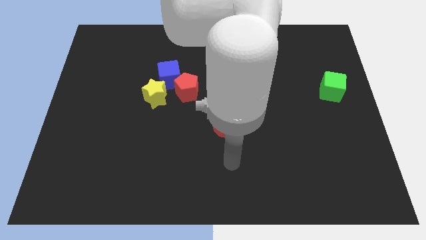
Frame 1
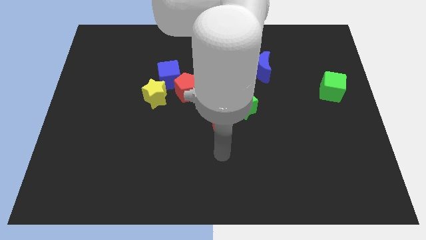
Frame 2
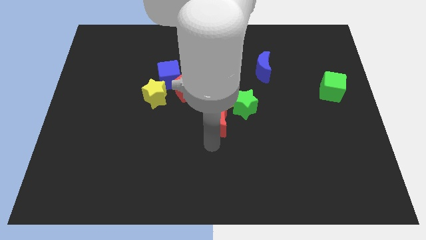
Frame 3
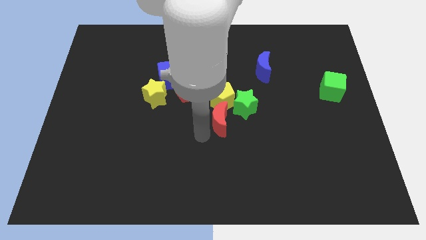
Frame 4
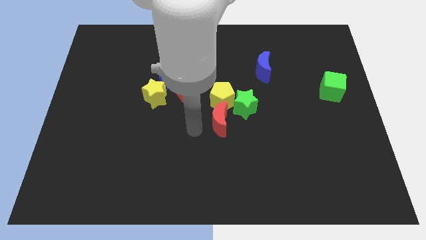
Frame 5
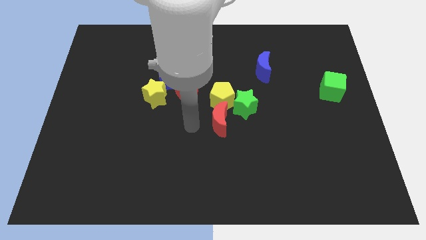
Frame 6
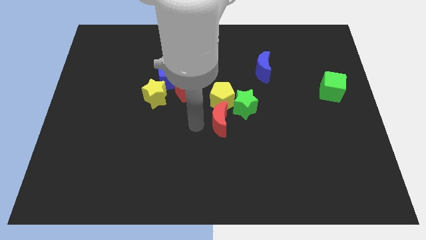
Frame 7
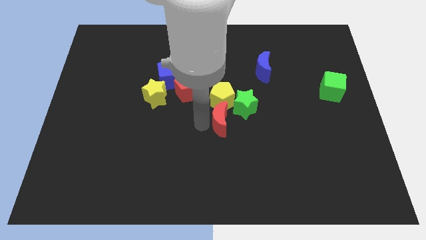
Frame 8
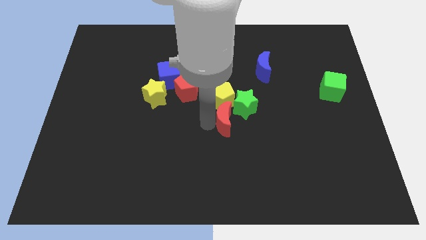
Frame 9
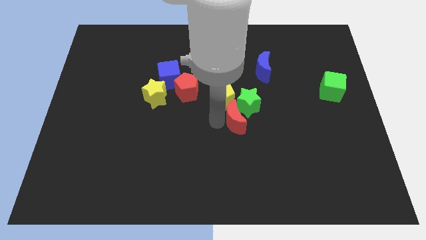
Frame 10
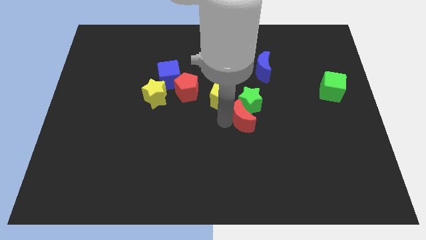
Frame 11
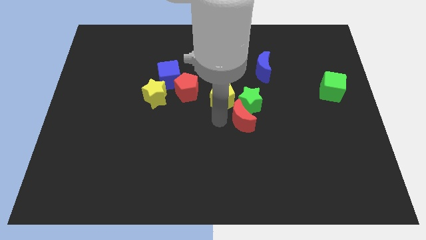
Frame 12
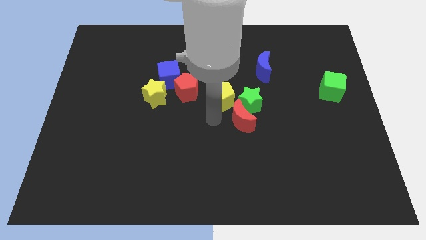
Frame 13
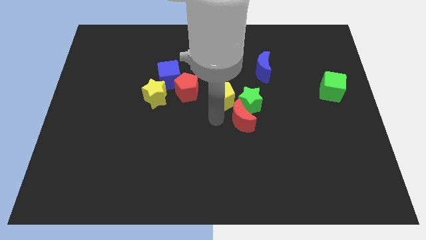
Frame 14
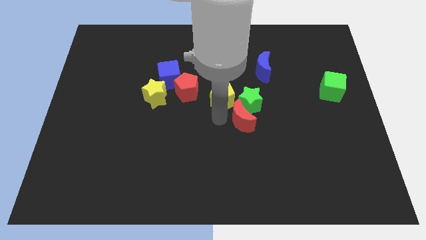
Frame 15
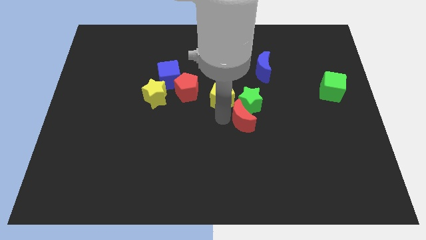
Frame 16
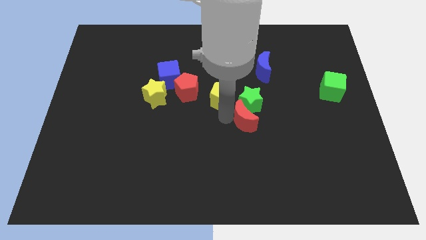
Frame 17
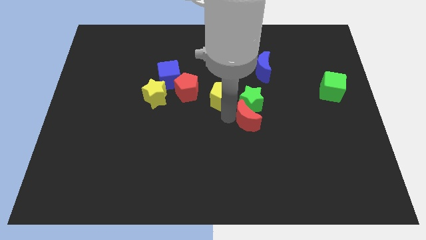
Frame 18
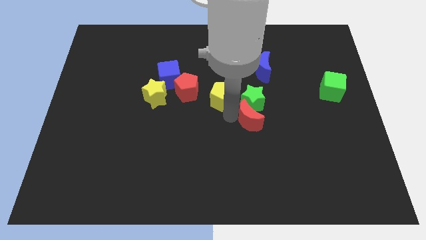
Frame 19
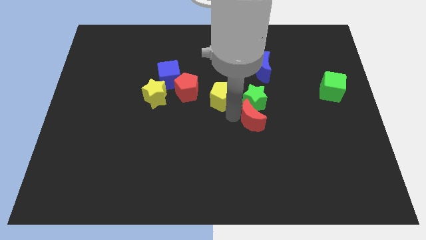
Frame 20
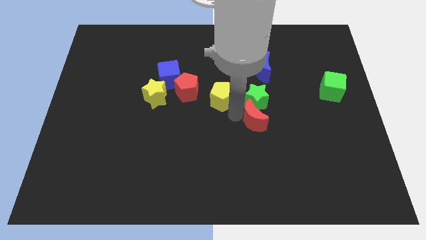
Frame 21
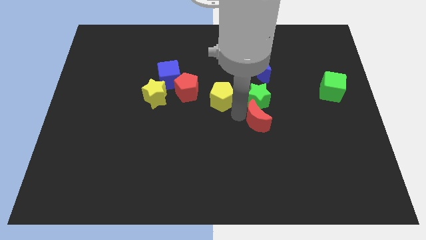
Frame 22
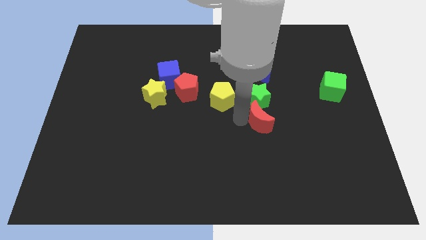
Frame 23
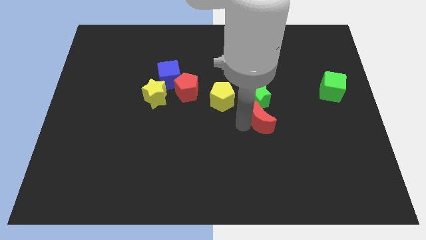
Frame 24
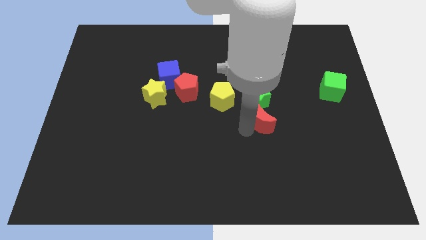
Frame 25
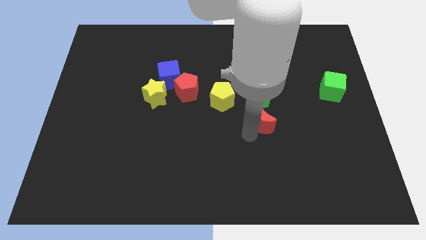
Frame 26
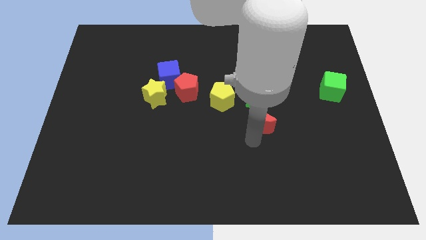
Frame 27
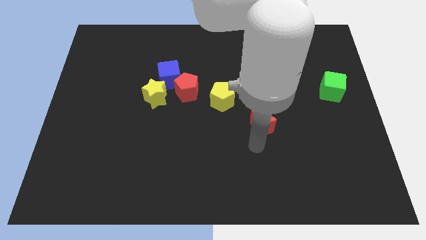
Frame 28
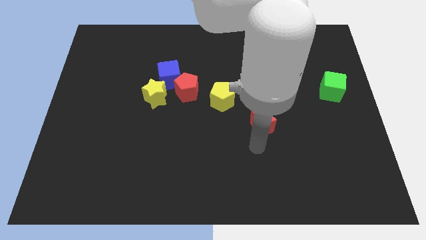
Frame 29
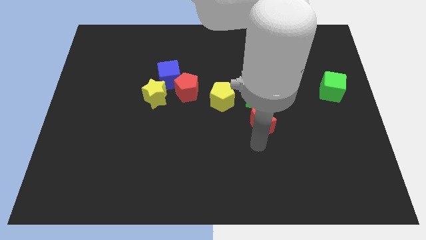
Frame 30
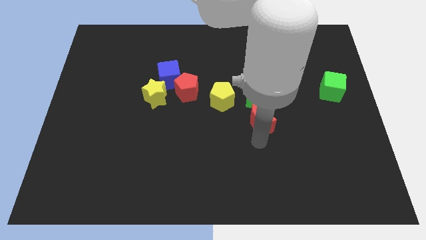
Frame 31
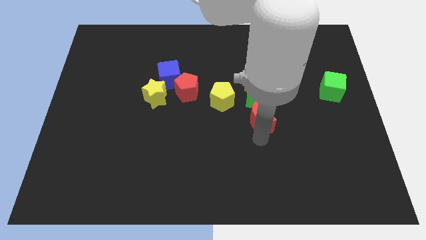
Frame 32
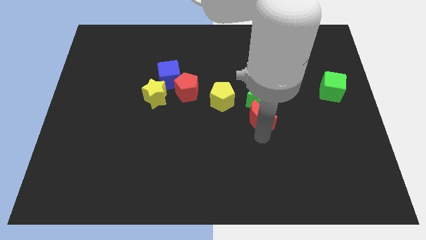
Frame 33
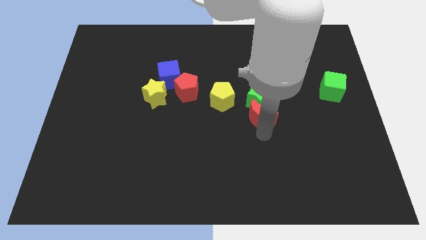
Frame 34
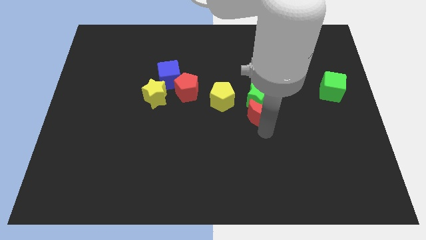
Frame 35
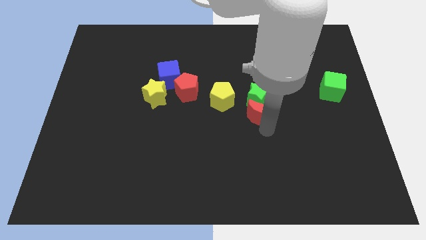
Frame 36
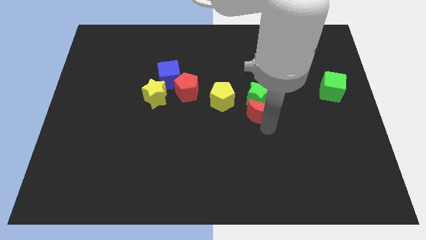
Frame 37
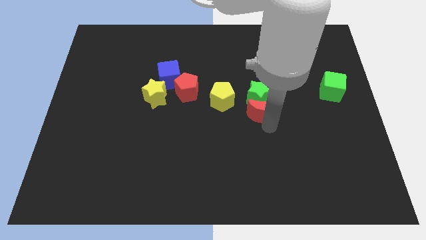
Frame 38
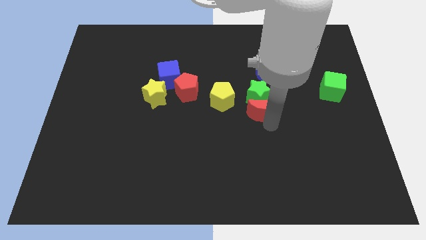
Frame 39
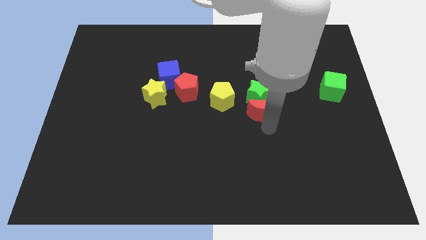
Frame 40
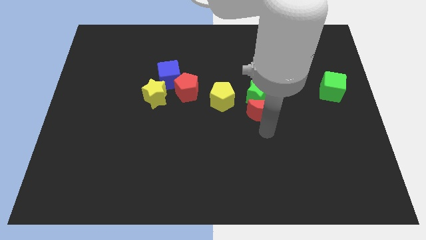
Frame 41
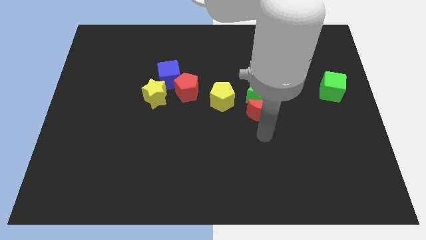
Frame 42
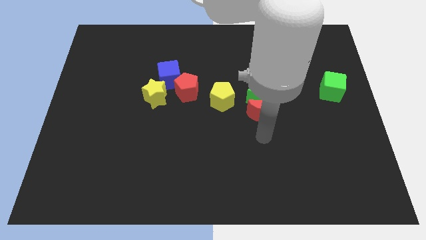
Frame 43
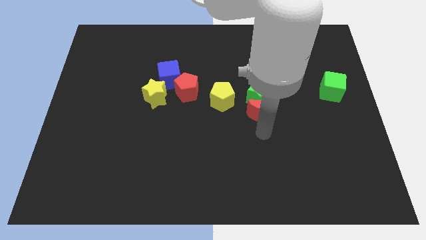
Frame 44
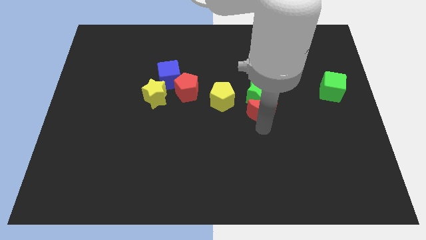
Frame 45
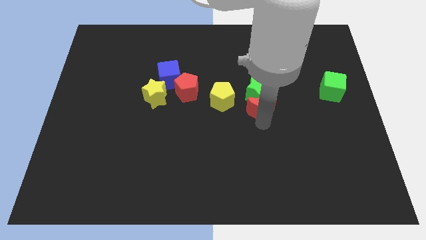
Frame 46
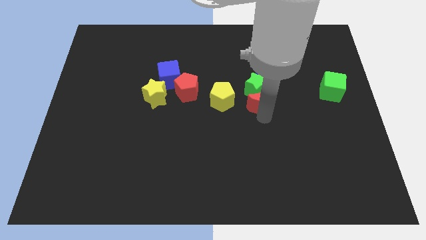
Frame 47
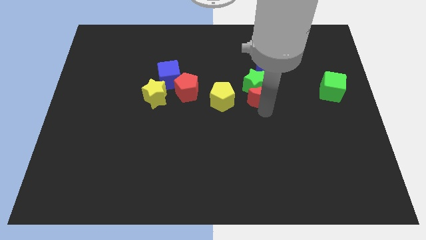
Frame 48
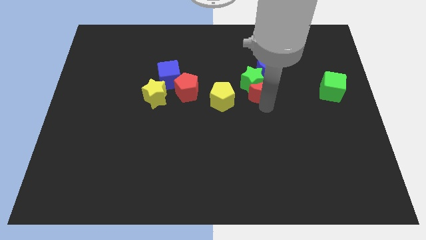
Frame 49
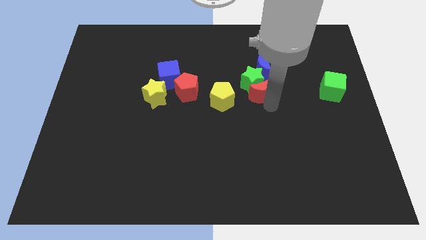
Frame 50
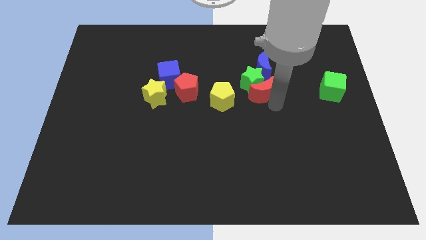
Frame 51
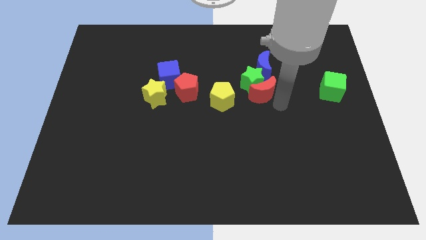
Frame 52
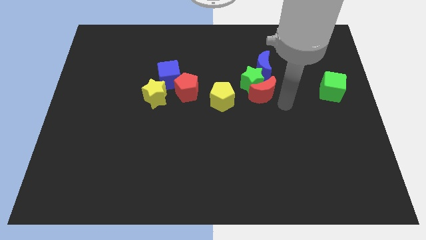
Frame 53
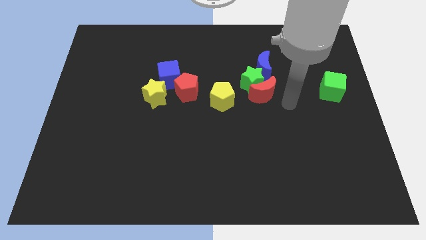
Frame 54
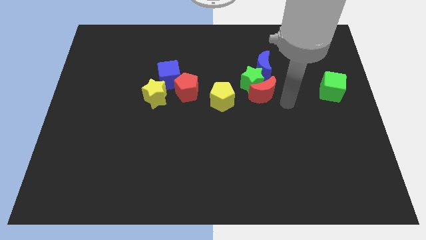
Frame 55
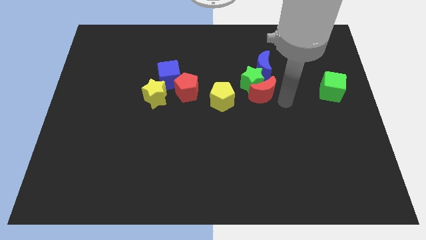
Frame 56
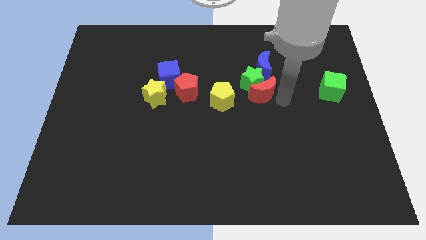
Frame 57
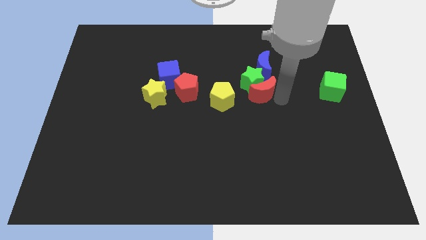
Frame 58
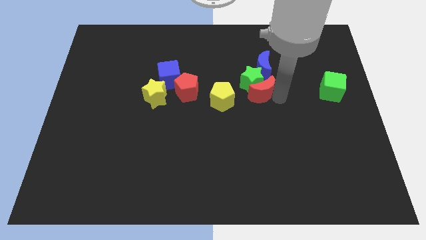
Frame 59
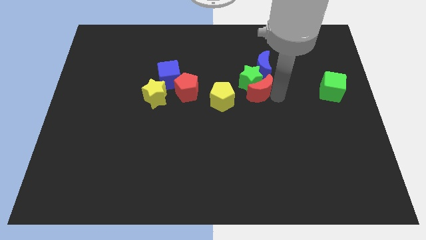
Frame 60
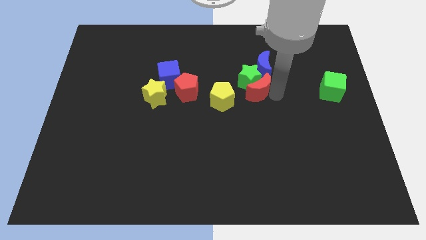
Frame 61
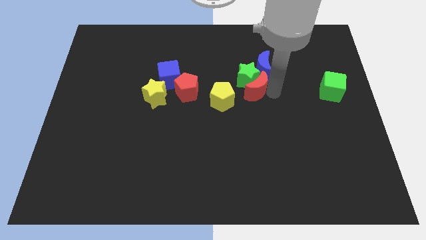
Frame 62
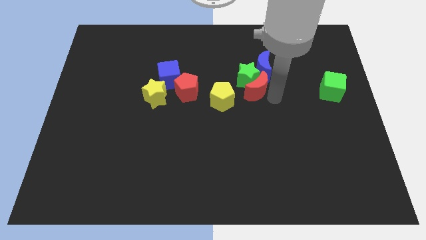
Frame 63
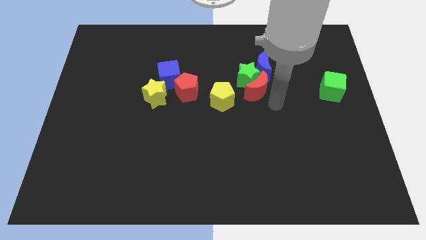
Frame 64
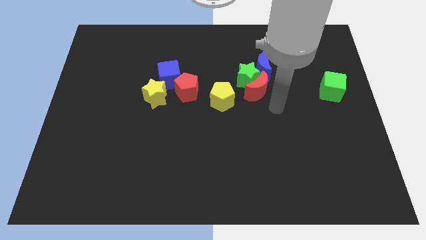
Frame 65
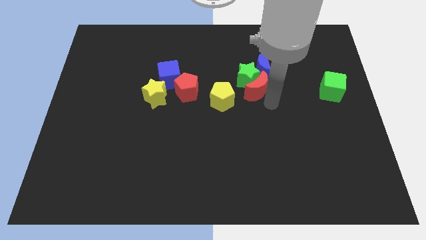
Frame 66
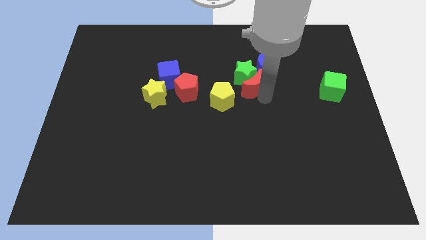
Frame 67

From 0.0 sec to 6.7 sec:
slightly push the red moon upwards

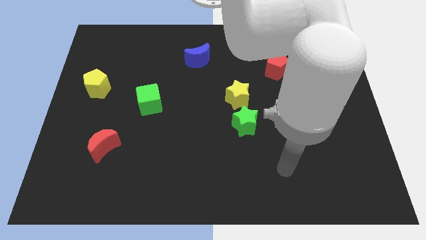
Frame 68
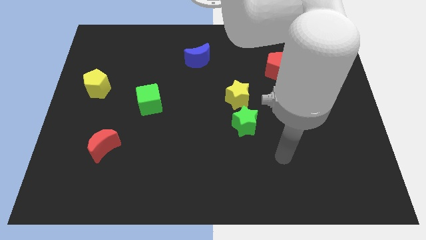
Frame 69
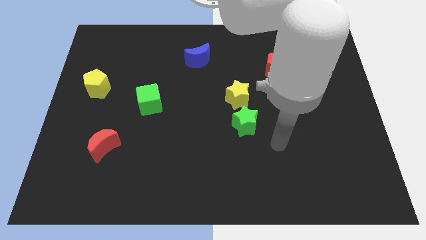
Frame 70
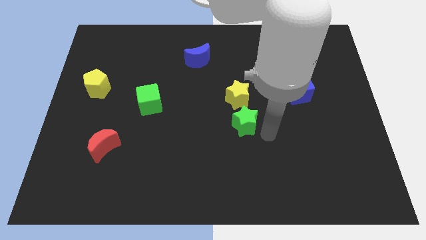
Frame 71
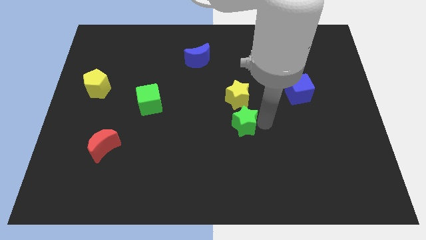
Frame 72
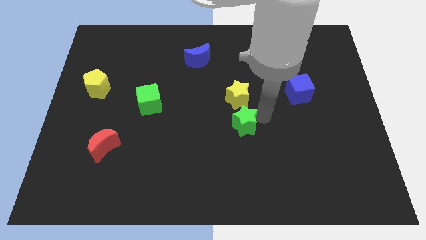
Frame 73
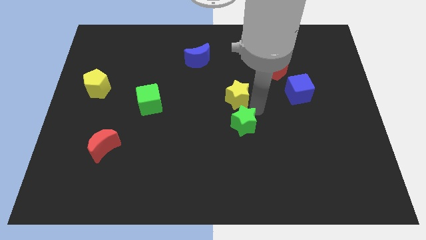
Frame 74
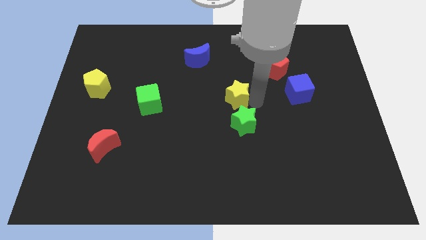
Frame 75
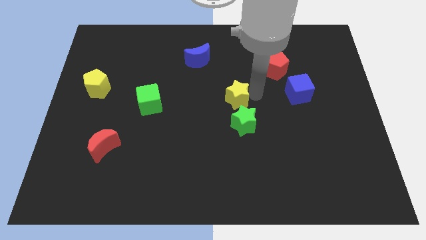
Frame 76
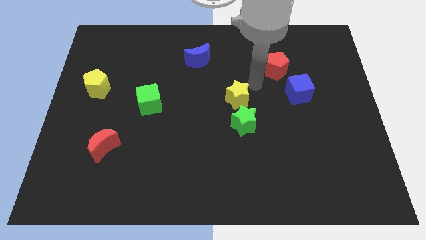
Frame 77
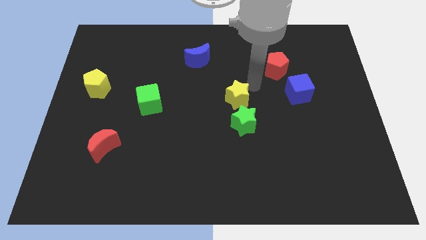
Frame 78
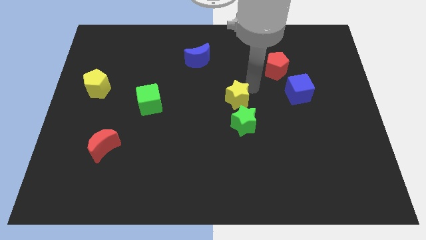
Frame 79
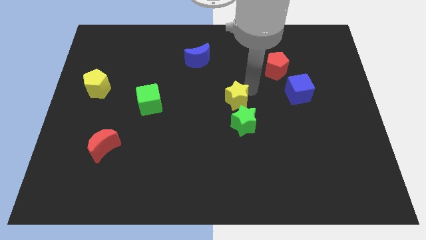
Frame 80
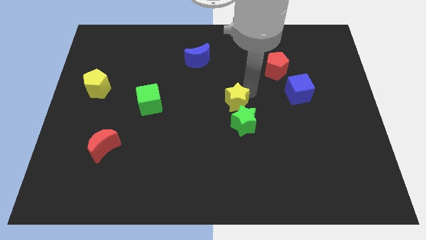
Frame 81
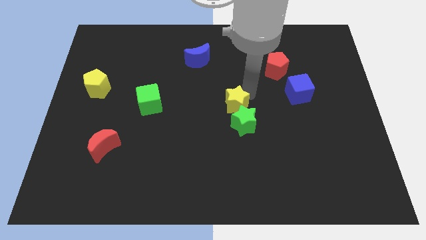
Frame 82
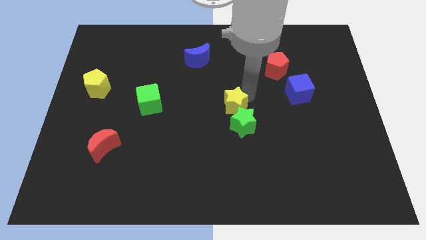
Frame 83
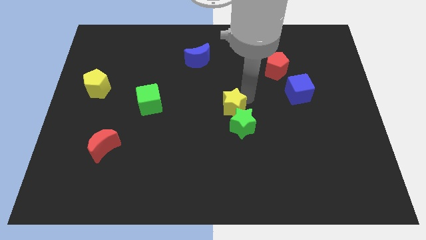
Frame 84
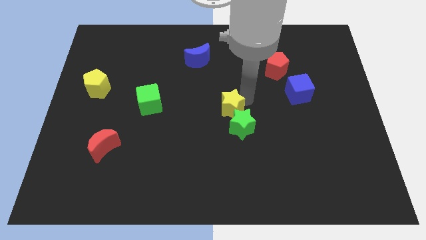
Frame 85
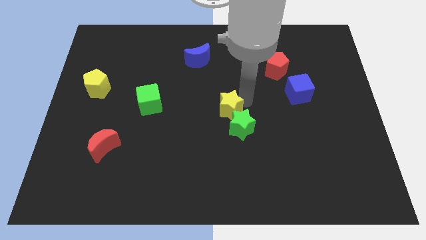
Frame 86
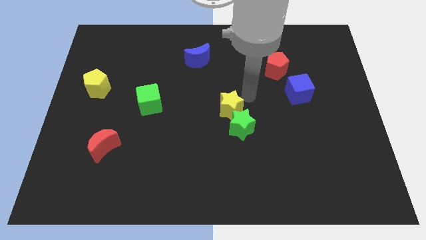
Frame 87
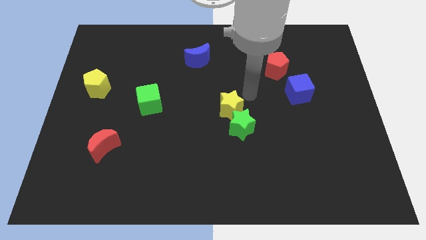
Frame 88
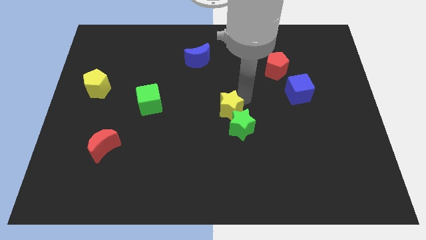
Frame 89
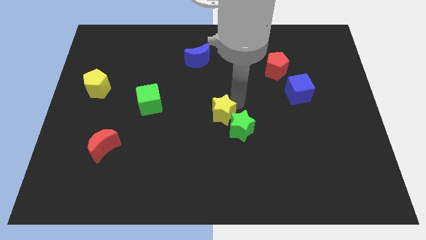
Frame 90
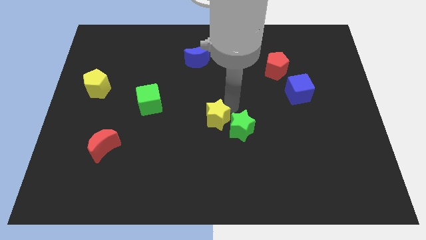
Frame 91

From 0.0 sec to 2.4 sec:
slide the yellow star a little down and then left
